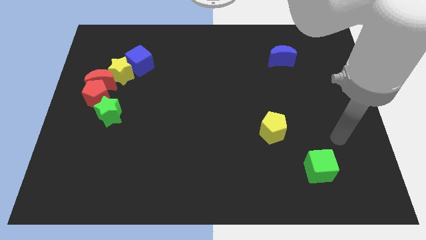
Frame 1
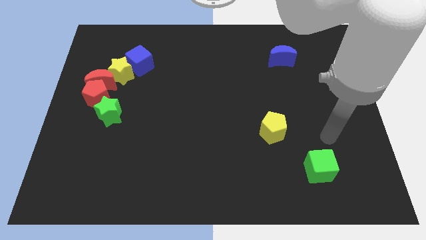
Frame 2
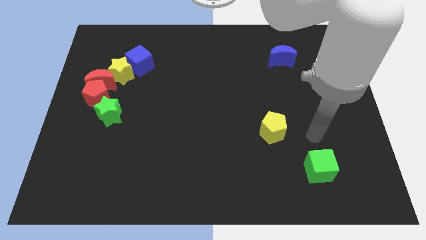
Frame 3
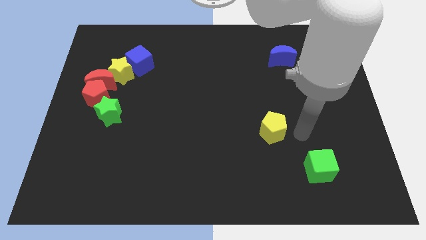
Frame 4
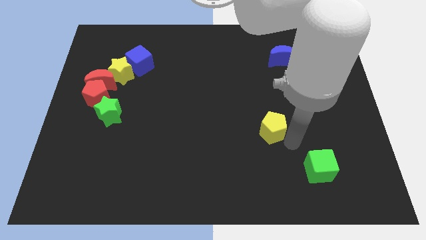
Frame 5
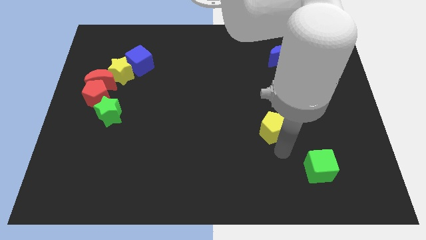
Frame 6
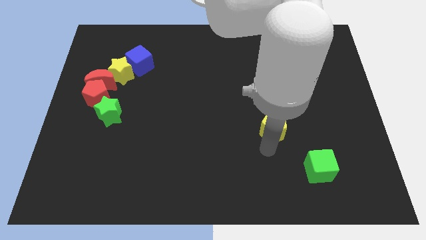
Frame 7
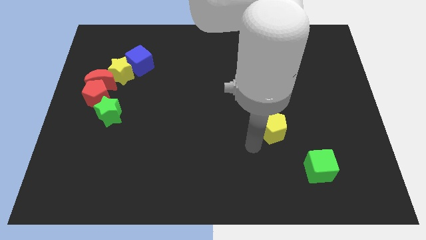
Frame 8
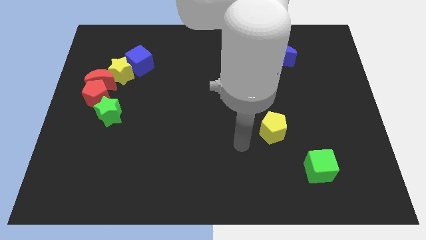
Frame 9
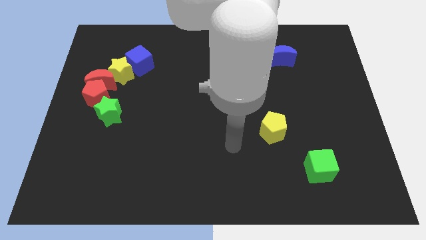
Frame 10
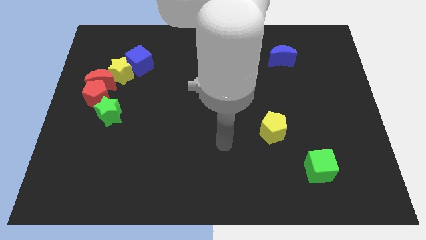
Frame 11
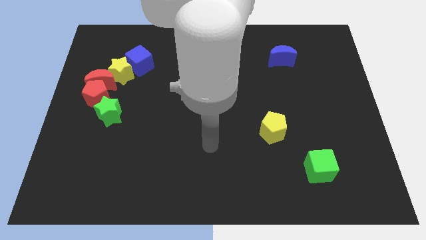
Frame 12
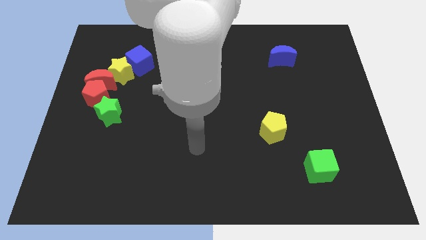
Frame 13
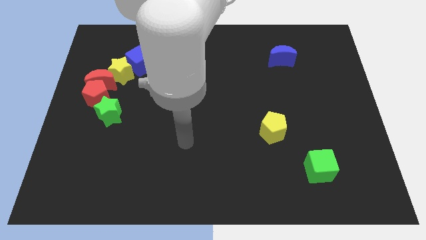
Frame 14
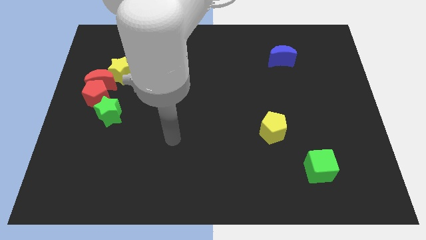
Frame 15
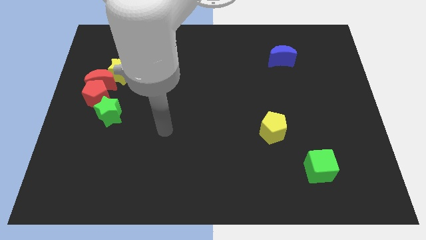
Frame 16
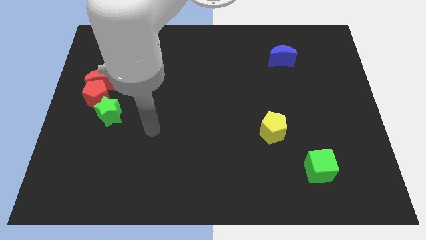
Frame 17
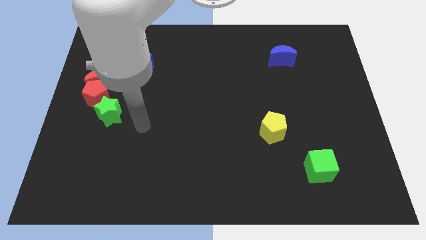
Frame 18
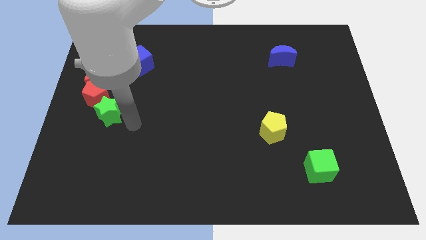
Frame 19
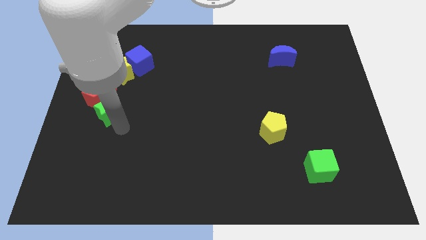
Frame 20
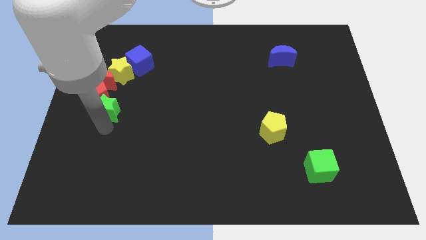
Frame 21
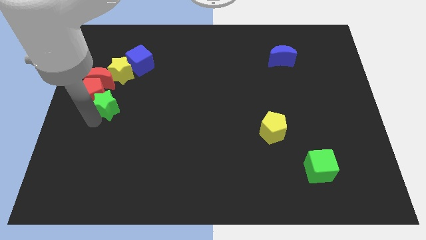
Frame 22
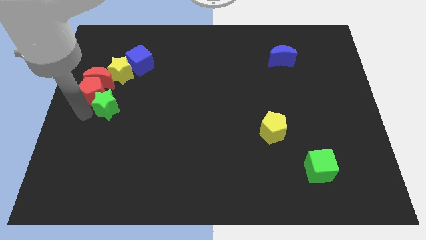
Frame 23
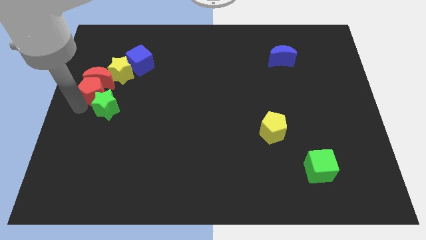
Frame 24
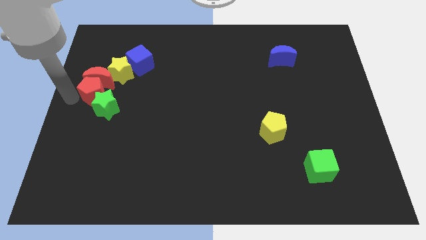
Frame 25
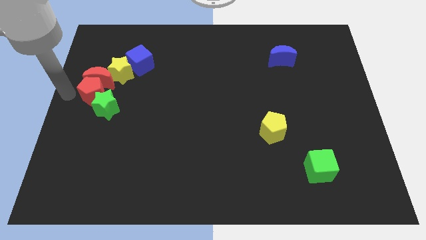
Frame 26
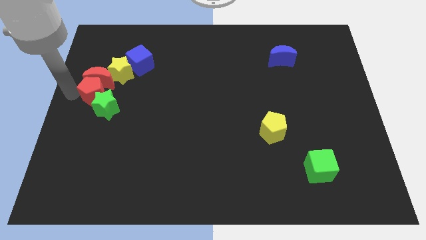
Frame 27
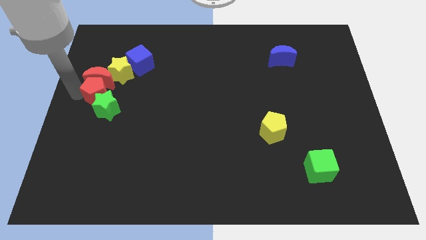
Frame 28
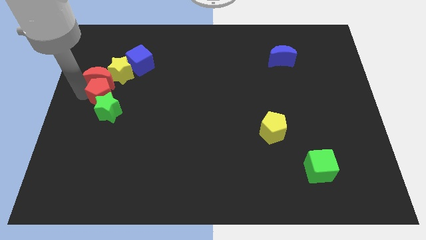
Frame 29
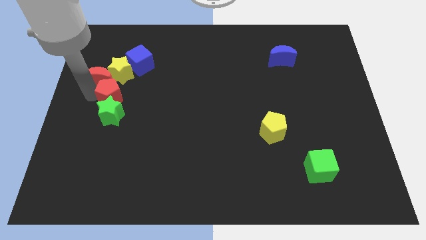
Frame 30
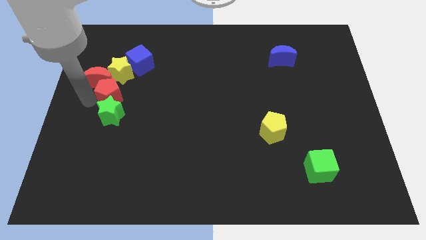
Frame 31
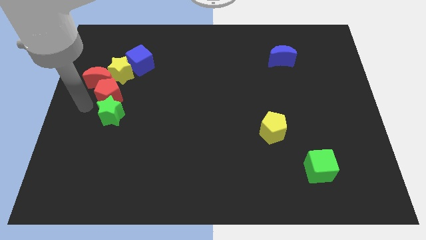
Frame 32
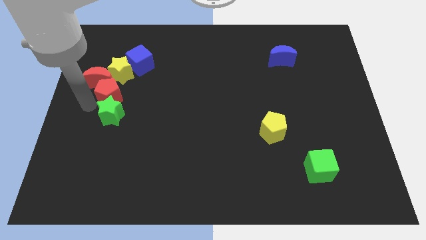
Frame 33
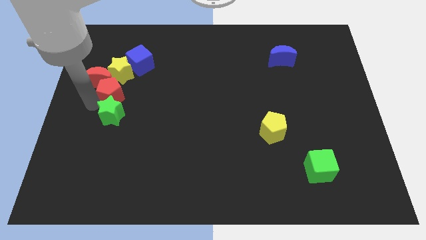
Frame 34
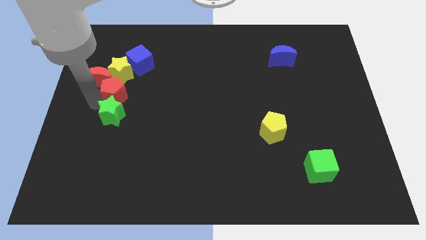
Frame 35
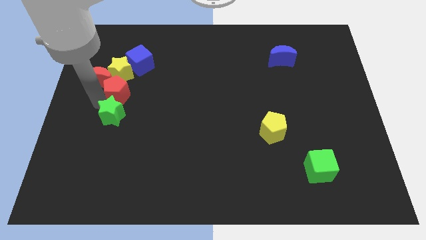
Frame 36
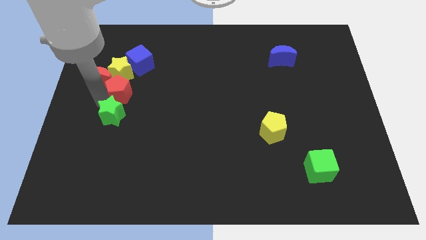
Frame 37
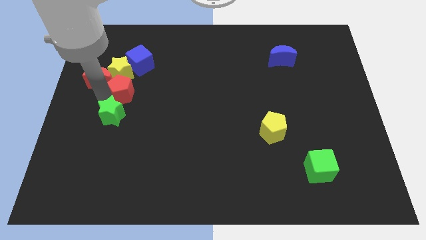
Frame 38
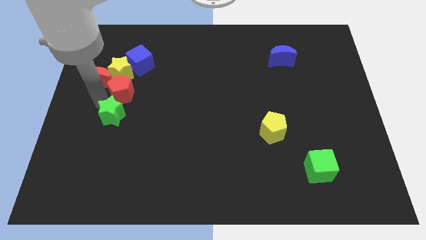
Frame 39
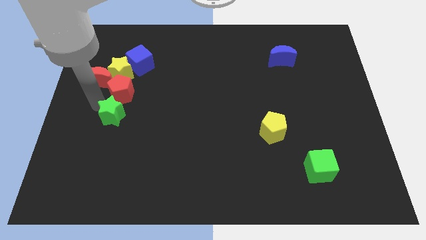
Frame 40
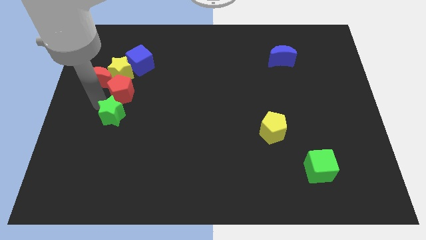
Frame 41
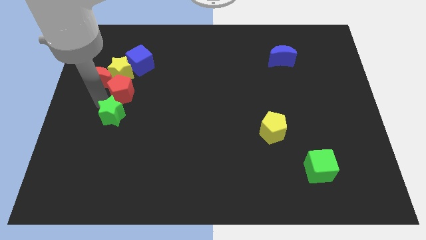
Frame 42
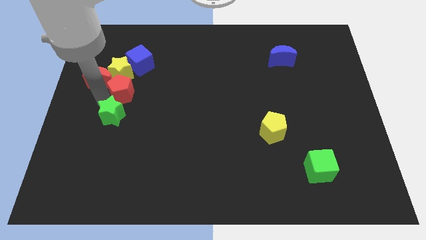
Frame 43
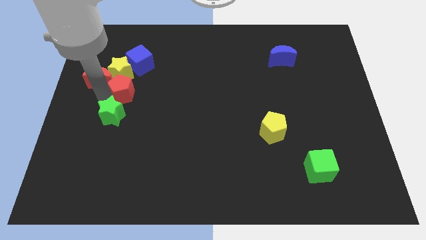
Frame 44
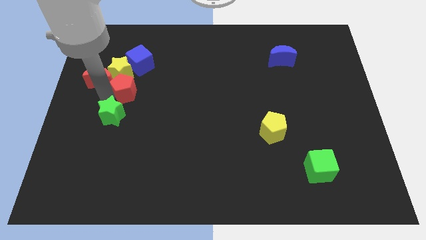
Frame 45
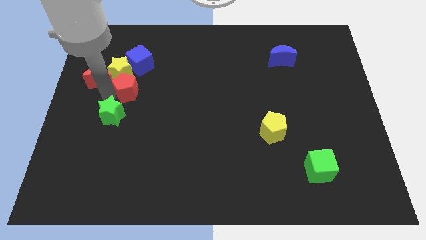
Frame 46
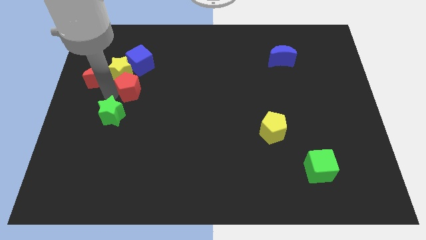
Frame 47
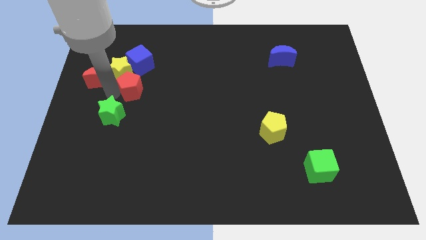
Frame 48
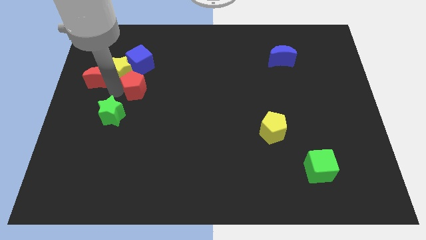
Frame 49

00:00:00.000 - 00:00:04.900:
slightly push the red pentagon upwards and right

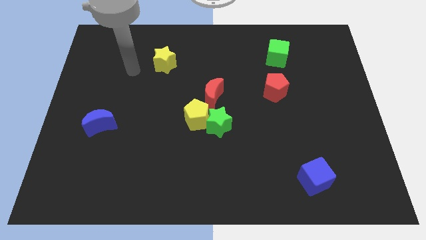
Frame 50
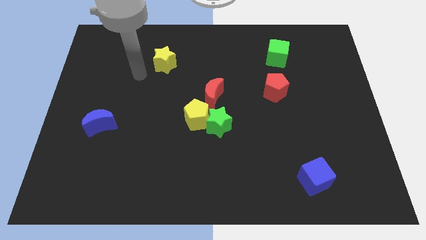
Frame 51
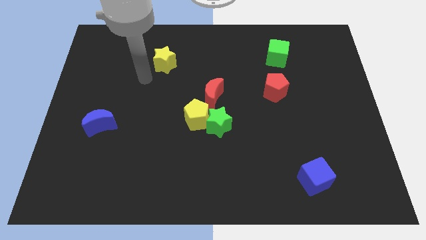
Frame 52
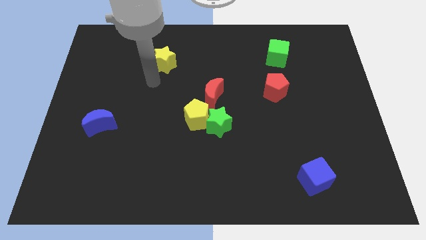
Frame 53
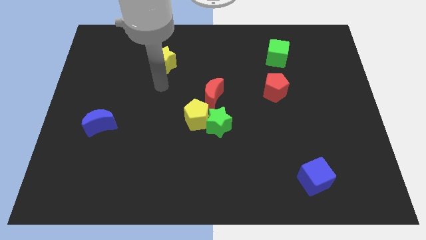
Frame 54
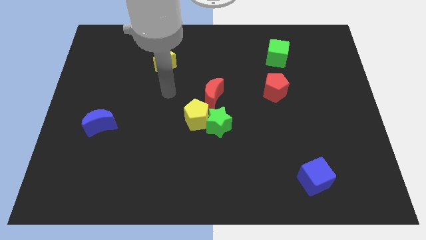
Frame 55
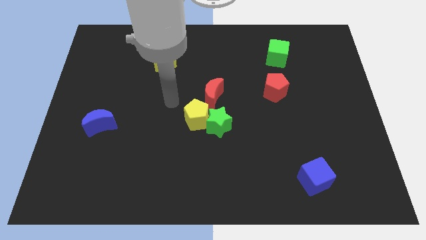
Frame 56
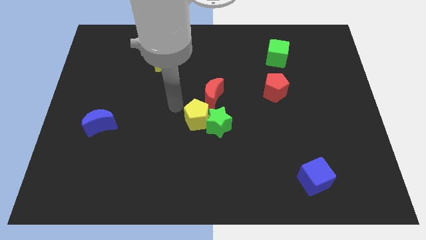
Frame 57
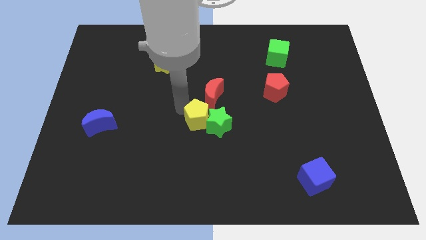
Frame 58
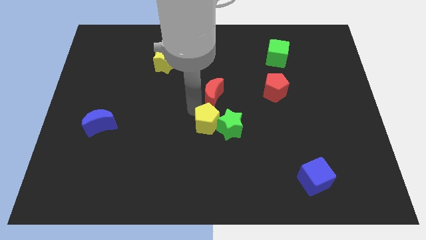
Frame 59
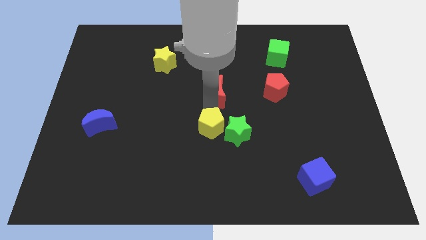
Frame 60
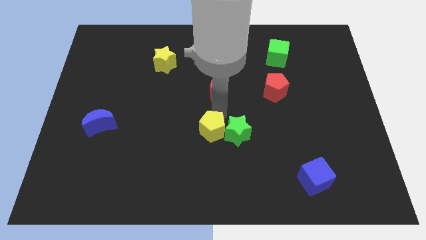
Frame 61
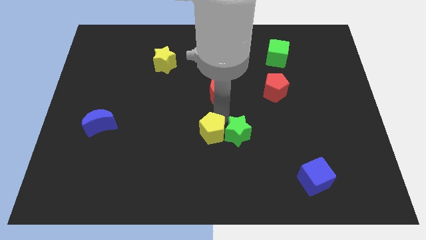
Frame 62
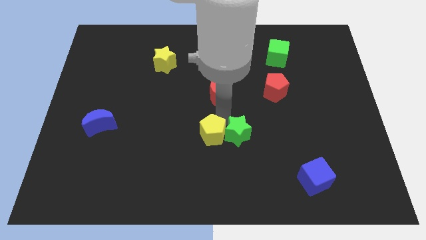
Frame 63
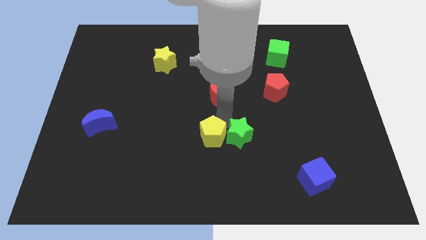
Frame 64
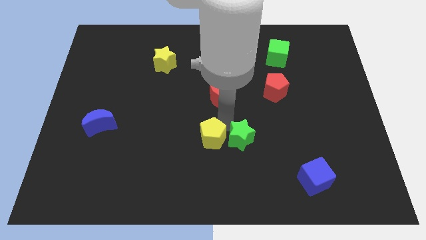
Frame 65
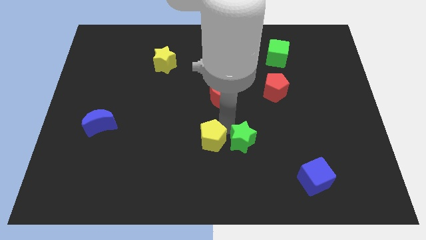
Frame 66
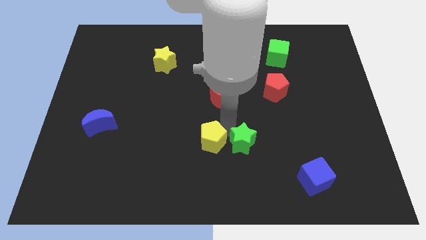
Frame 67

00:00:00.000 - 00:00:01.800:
push the green star a little bit down and then to the right

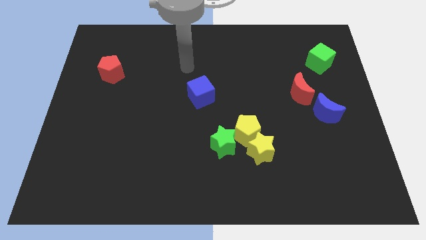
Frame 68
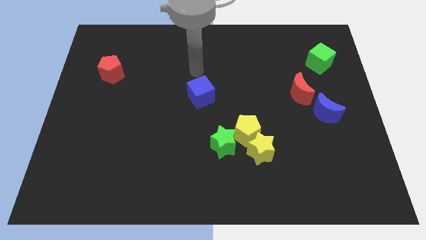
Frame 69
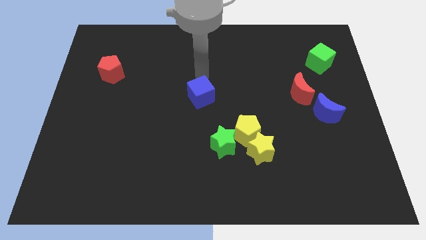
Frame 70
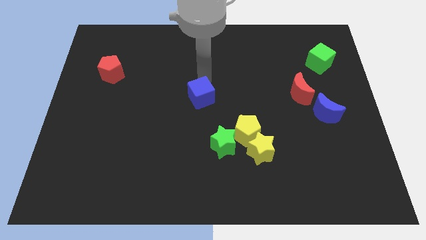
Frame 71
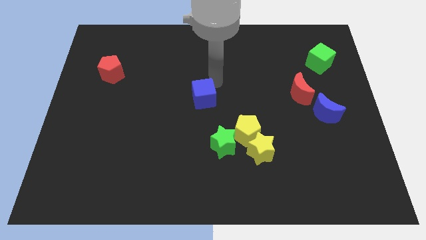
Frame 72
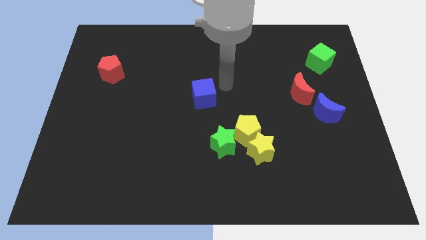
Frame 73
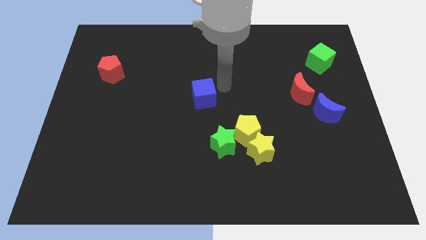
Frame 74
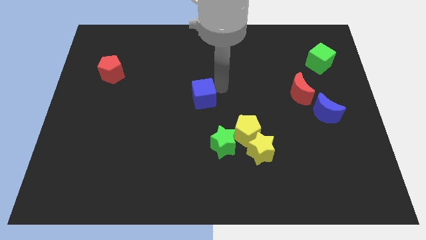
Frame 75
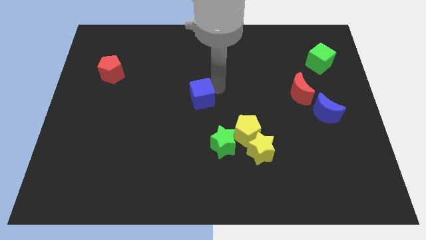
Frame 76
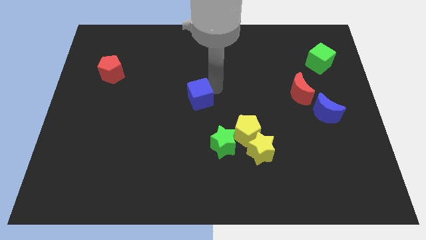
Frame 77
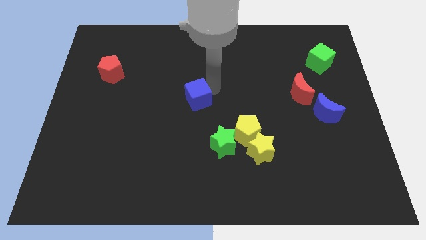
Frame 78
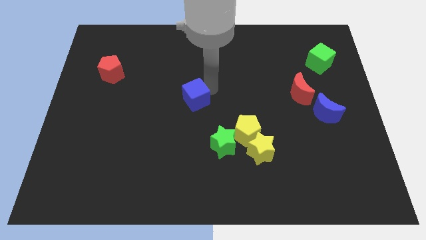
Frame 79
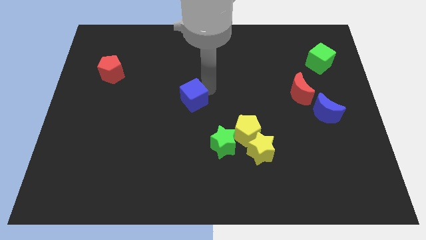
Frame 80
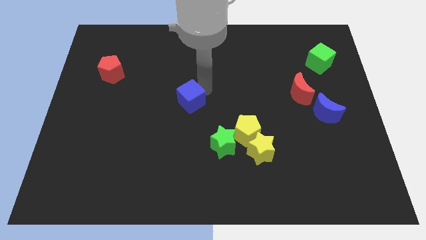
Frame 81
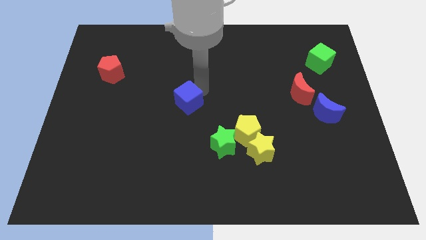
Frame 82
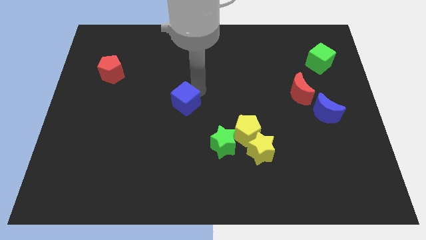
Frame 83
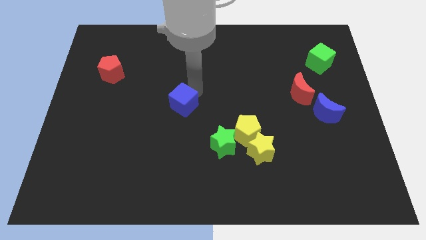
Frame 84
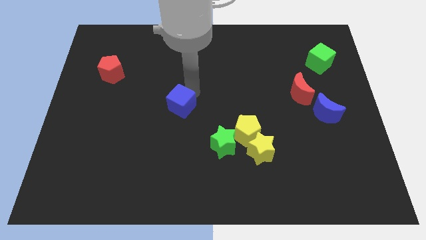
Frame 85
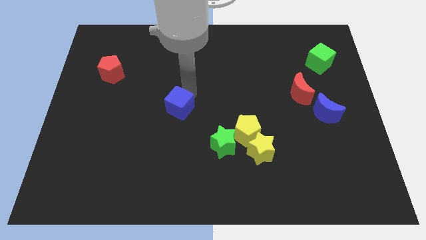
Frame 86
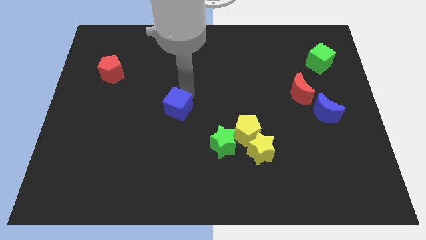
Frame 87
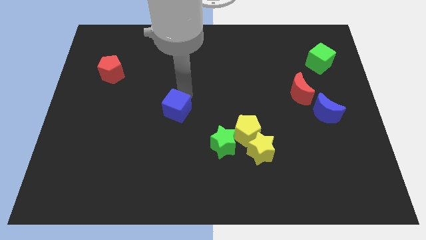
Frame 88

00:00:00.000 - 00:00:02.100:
slide the blue cube a bit down and then left
